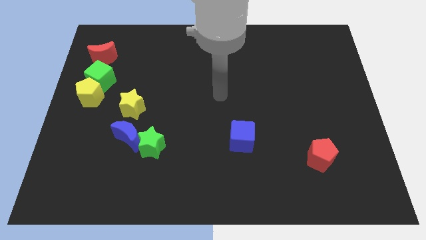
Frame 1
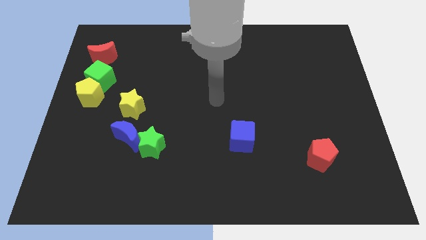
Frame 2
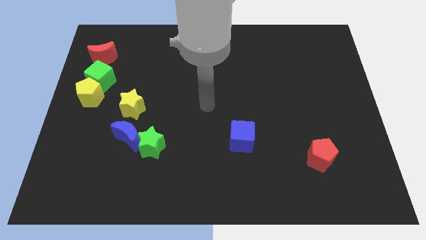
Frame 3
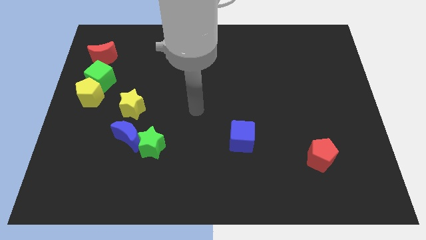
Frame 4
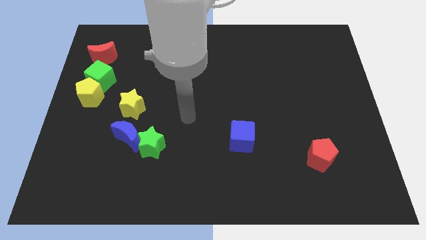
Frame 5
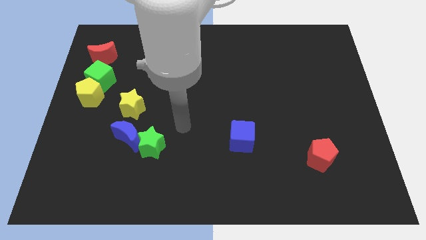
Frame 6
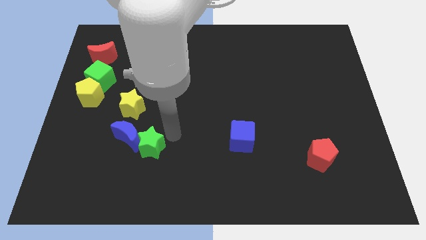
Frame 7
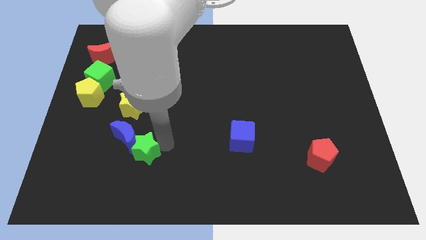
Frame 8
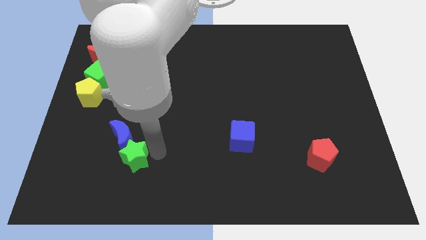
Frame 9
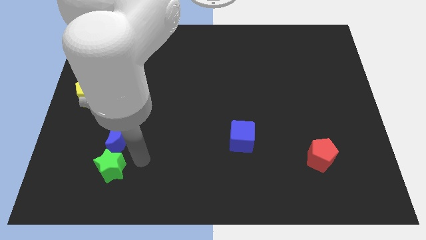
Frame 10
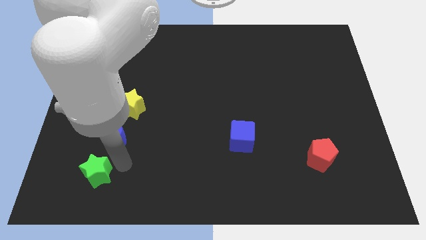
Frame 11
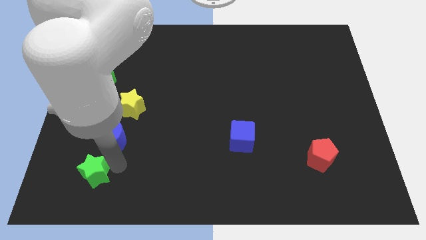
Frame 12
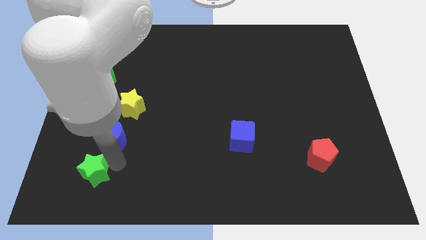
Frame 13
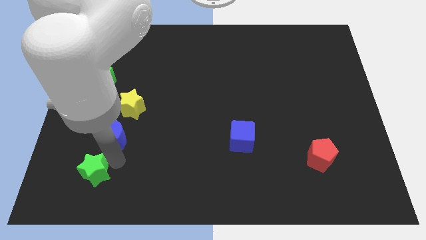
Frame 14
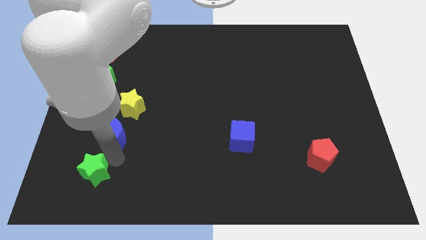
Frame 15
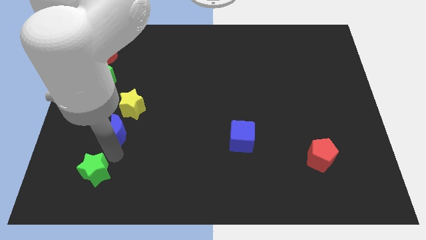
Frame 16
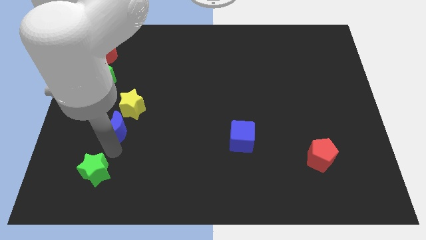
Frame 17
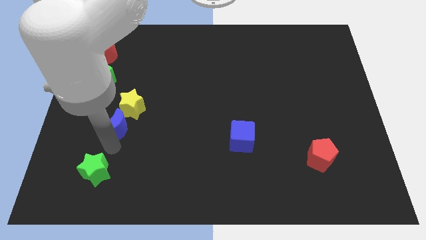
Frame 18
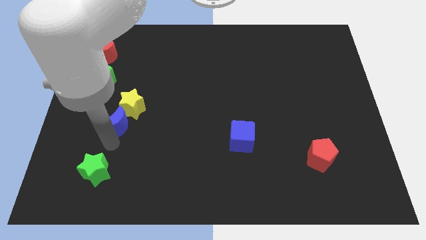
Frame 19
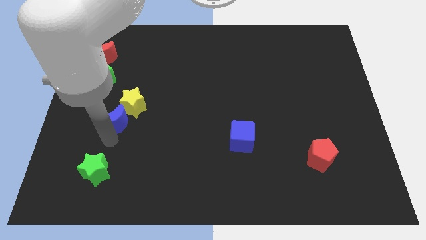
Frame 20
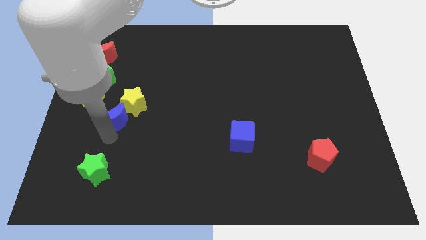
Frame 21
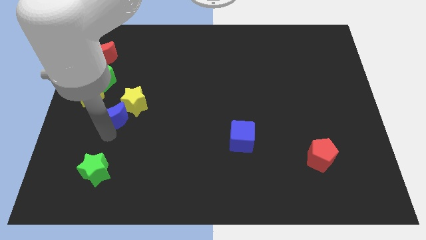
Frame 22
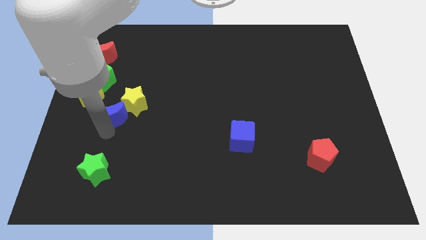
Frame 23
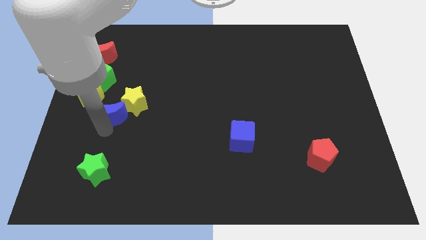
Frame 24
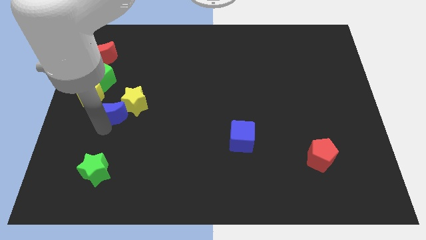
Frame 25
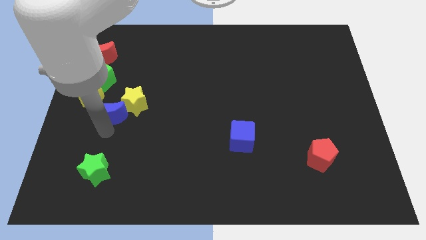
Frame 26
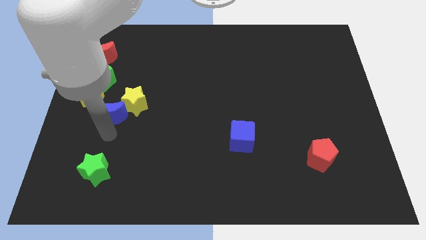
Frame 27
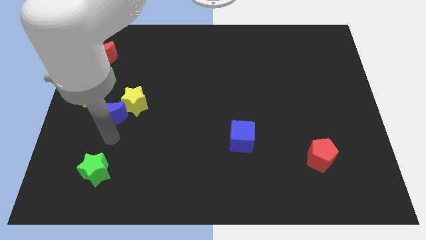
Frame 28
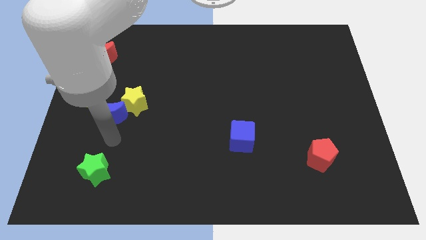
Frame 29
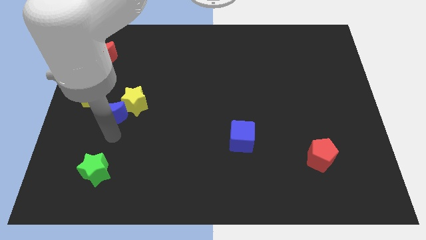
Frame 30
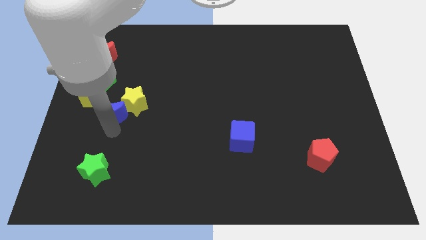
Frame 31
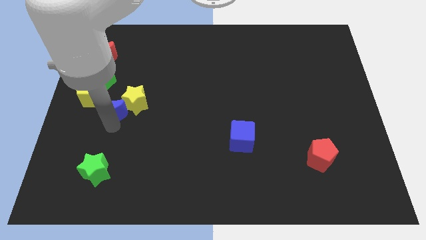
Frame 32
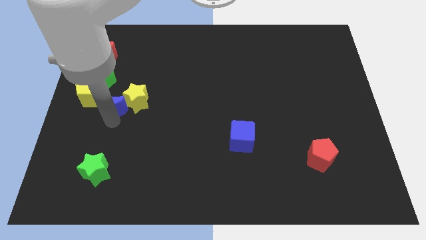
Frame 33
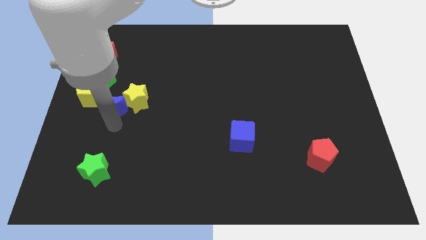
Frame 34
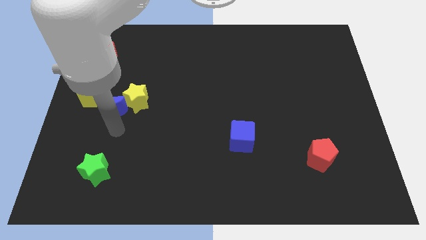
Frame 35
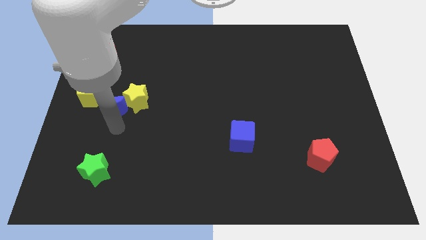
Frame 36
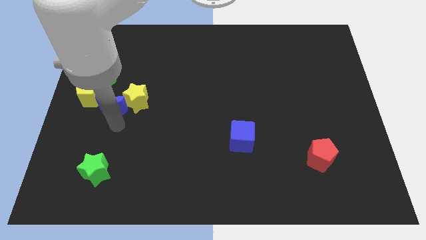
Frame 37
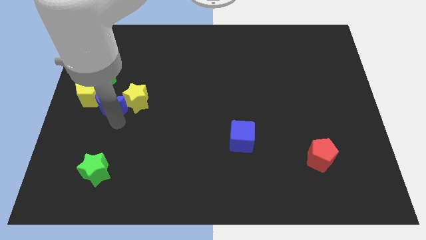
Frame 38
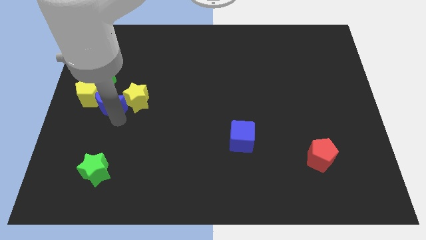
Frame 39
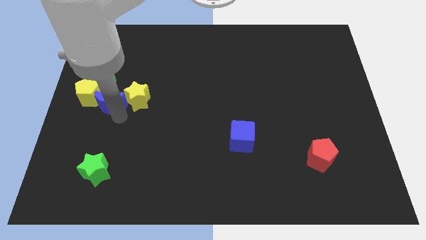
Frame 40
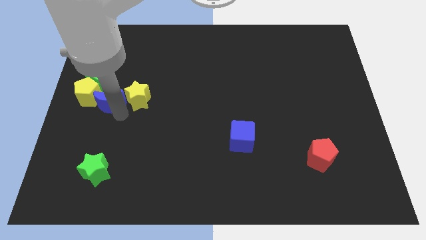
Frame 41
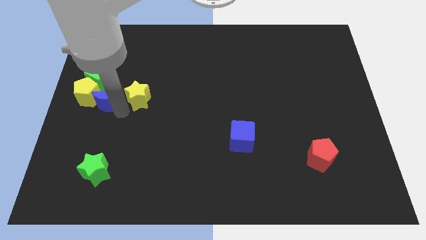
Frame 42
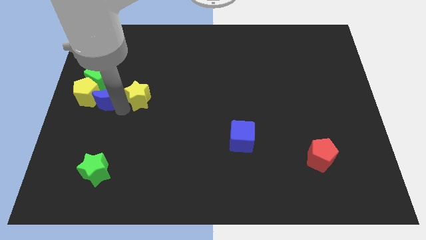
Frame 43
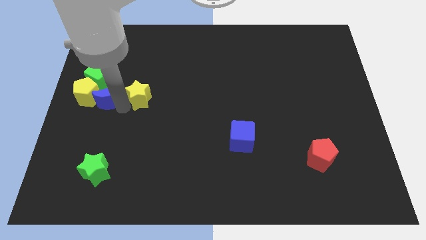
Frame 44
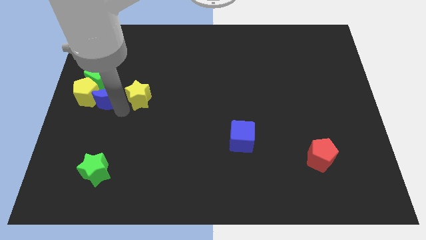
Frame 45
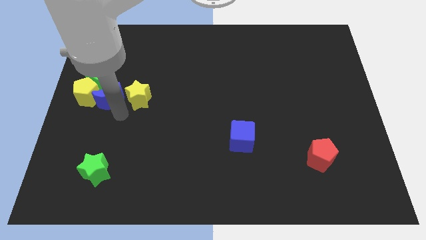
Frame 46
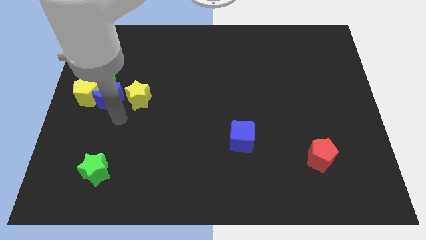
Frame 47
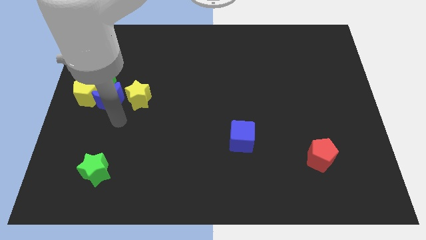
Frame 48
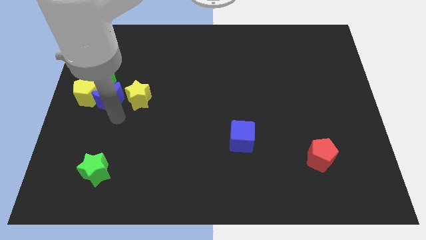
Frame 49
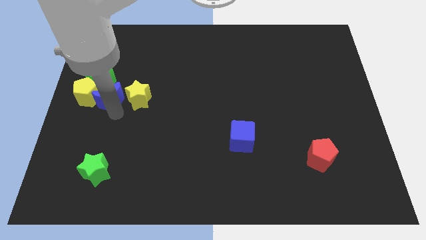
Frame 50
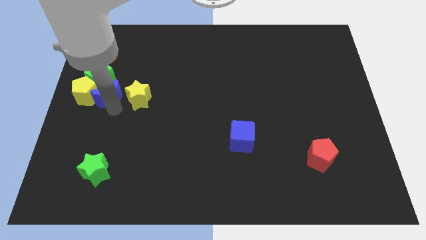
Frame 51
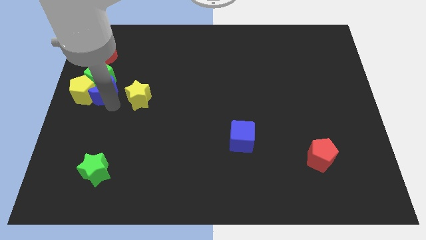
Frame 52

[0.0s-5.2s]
slide the blue moon towards the green cube

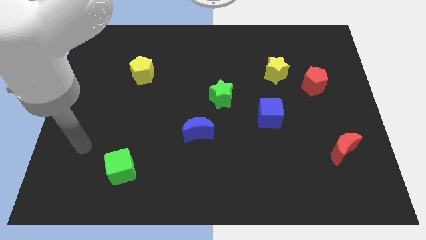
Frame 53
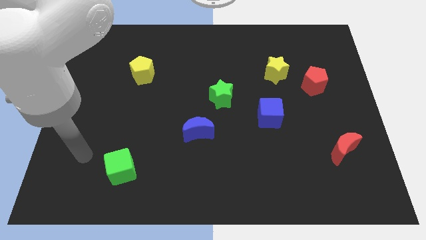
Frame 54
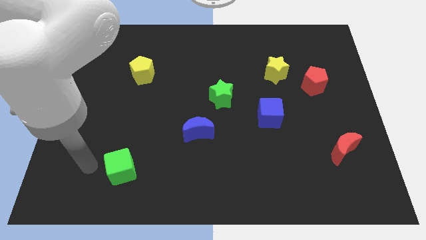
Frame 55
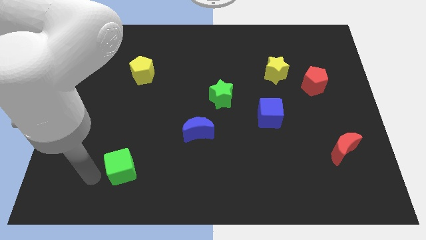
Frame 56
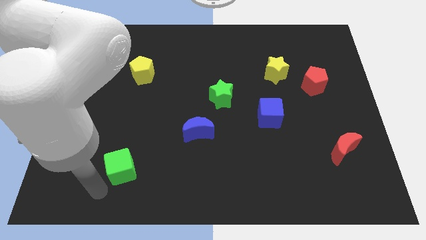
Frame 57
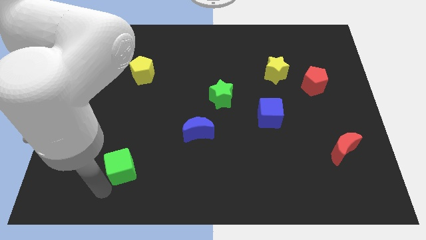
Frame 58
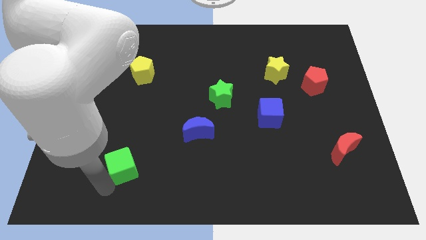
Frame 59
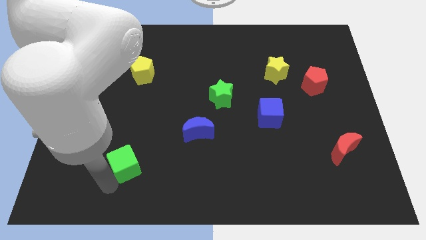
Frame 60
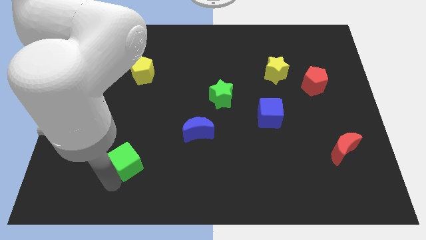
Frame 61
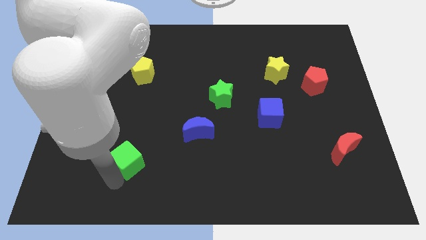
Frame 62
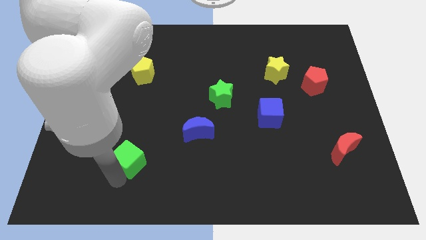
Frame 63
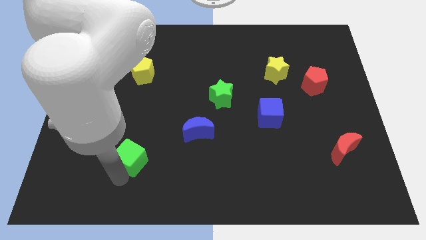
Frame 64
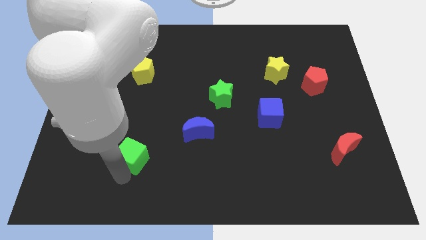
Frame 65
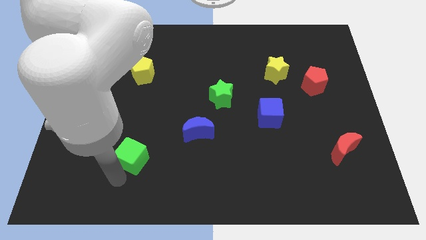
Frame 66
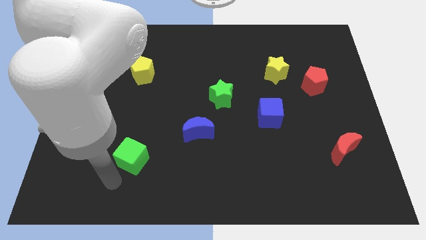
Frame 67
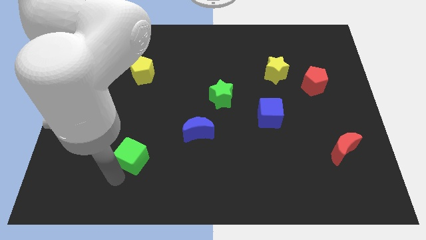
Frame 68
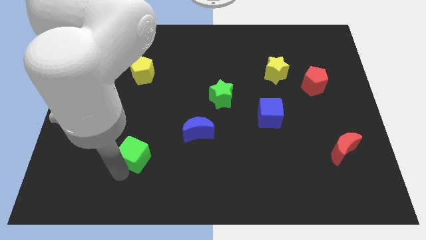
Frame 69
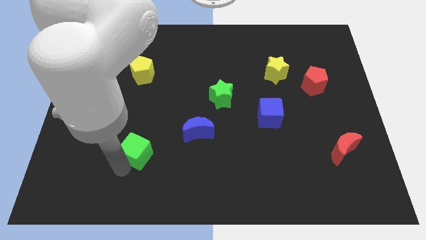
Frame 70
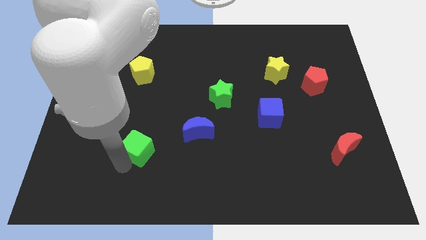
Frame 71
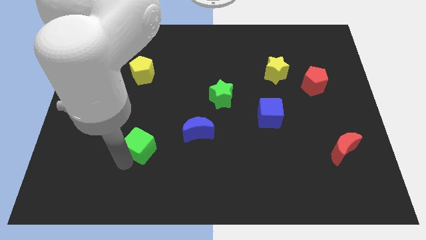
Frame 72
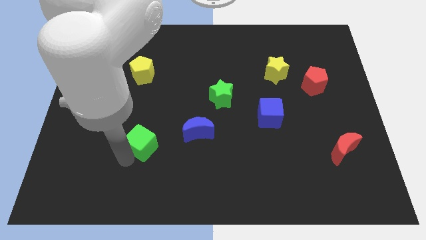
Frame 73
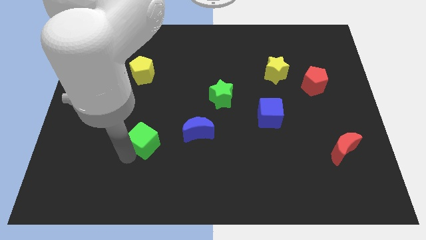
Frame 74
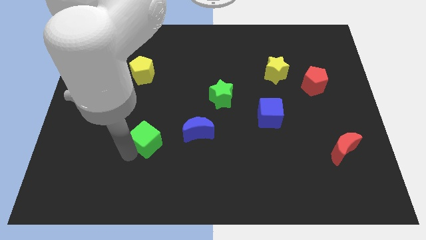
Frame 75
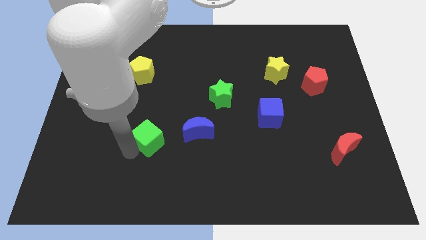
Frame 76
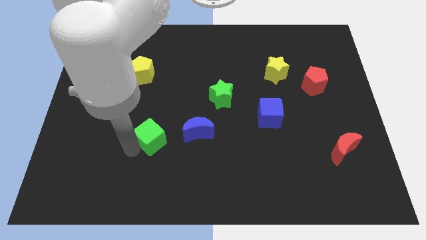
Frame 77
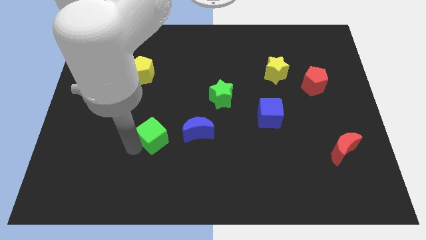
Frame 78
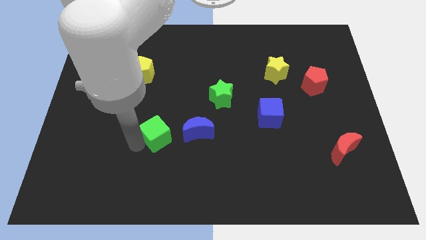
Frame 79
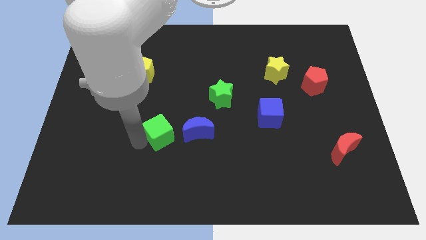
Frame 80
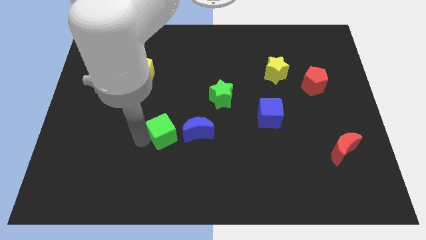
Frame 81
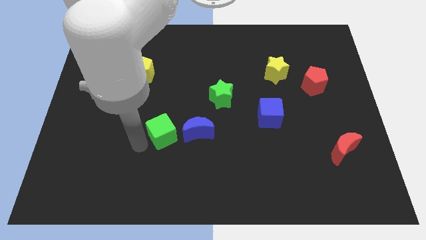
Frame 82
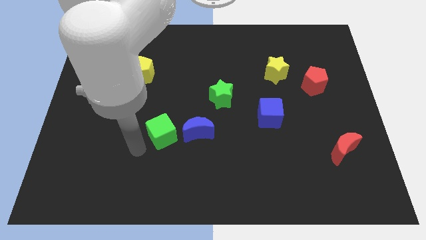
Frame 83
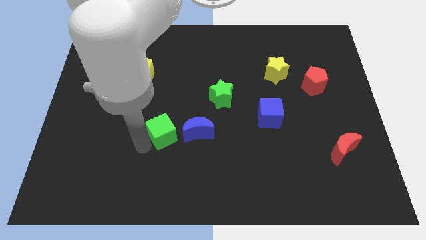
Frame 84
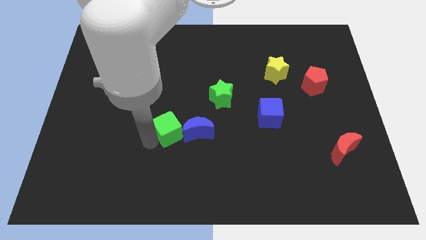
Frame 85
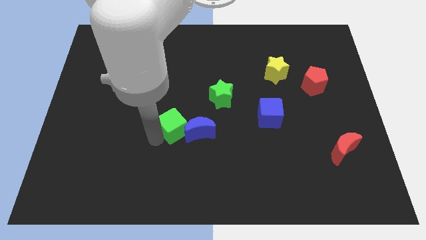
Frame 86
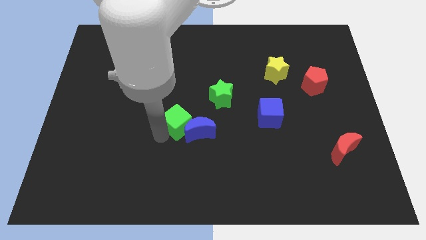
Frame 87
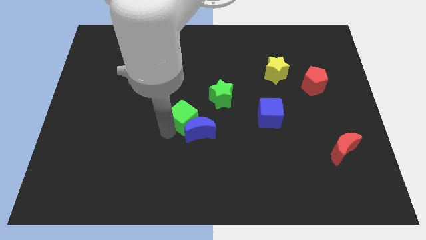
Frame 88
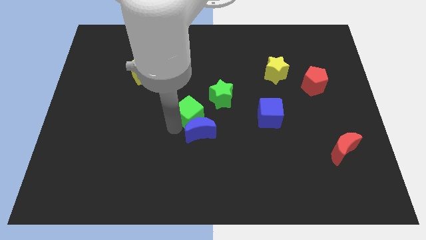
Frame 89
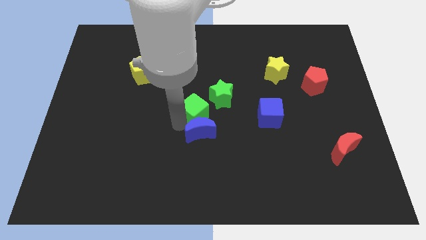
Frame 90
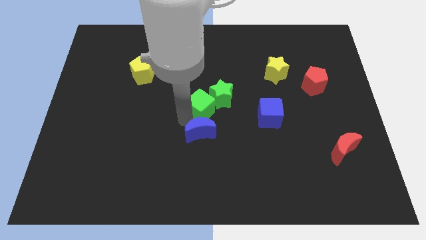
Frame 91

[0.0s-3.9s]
push the green cube close to the green star
